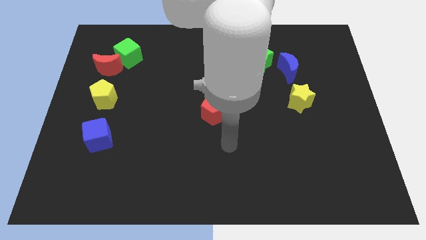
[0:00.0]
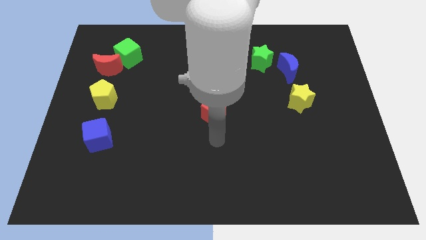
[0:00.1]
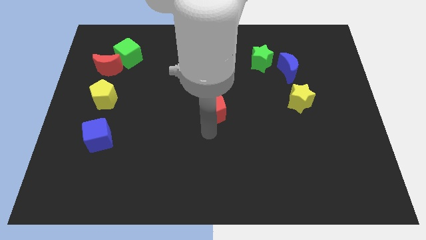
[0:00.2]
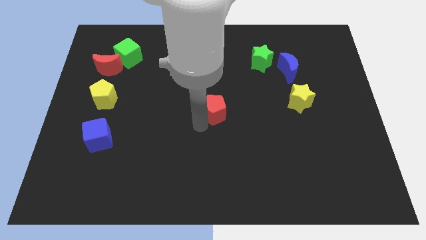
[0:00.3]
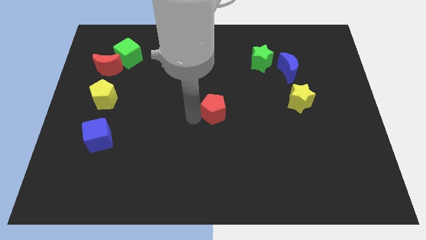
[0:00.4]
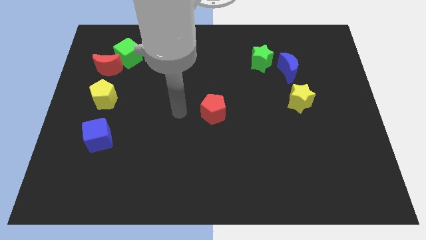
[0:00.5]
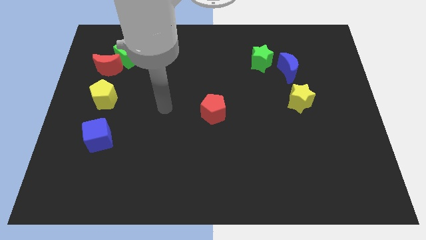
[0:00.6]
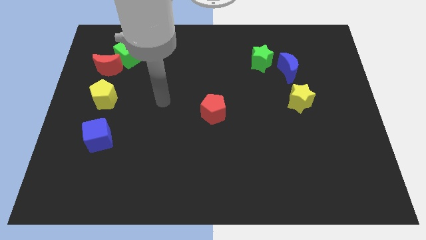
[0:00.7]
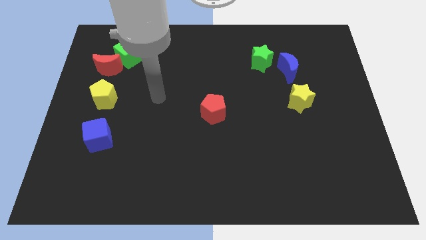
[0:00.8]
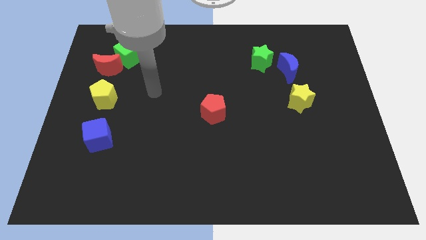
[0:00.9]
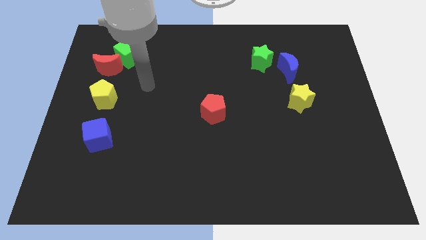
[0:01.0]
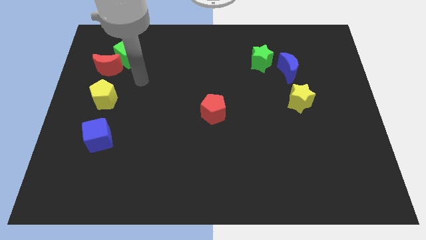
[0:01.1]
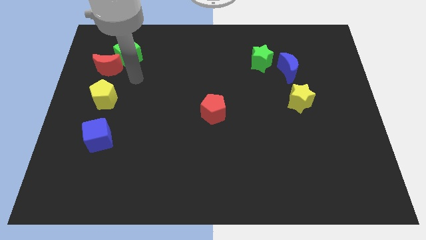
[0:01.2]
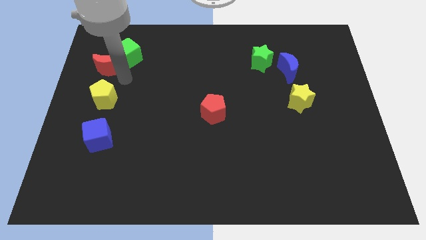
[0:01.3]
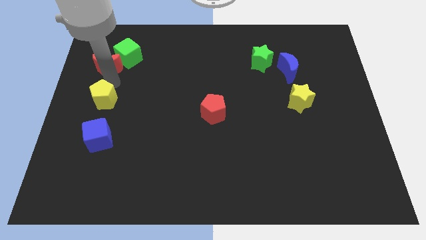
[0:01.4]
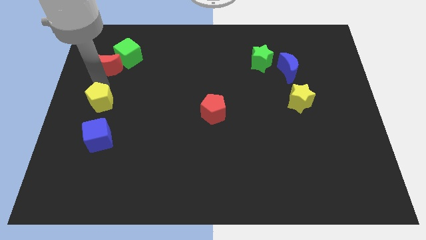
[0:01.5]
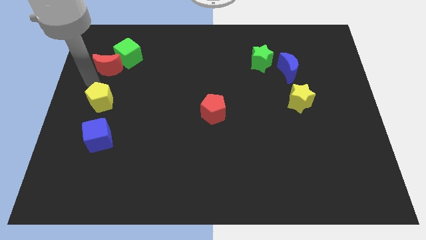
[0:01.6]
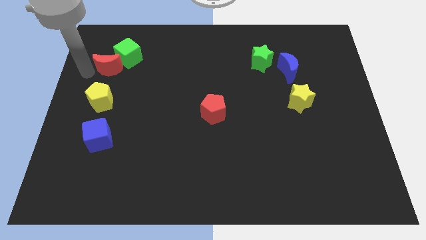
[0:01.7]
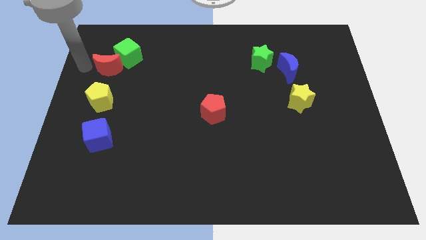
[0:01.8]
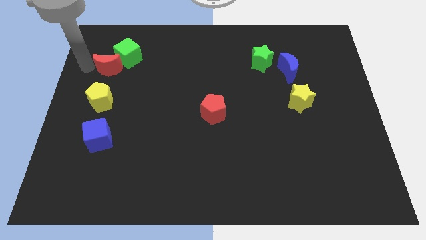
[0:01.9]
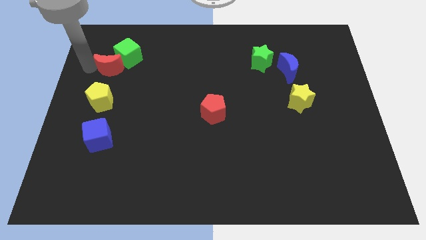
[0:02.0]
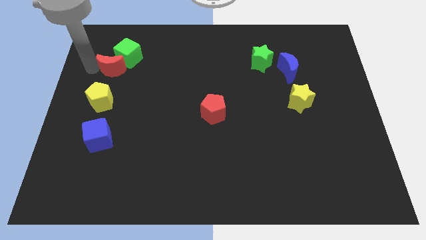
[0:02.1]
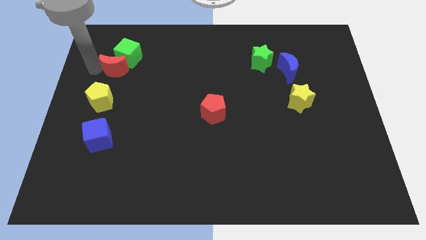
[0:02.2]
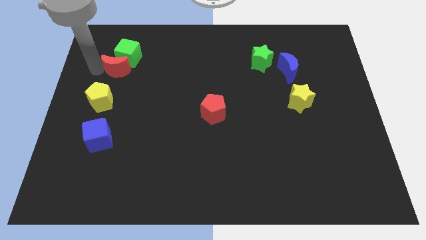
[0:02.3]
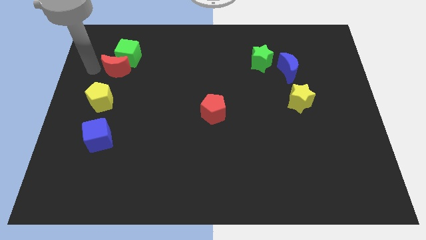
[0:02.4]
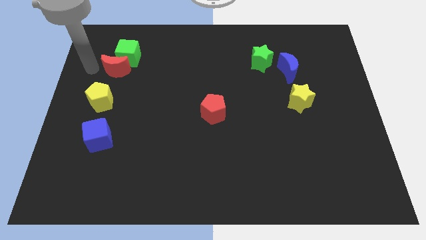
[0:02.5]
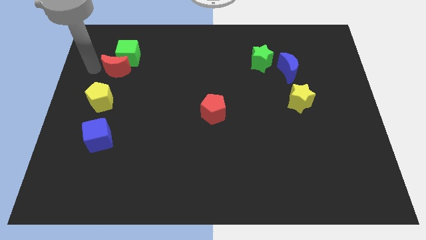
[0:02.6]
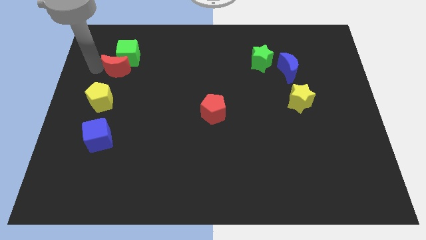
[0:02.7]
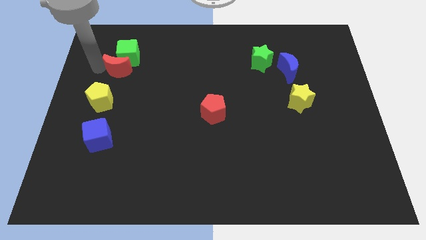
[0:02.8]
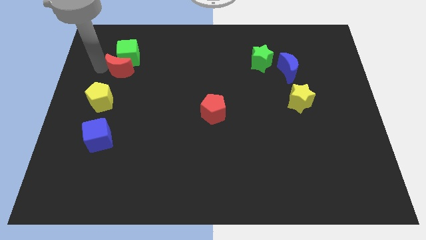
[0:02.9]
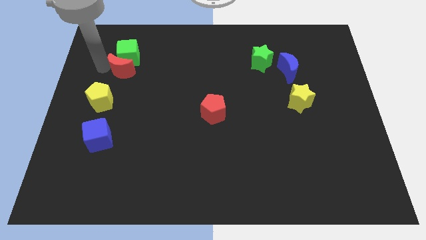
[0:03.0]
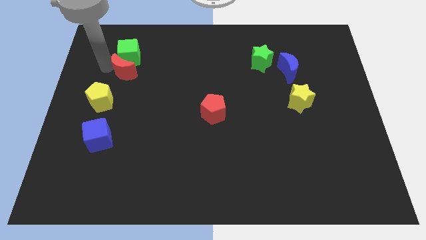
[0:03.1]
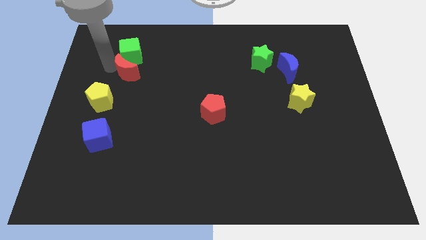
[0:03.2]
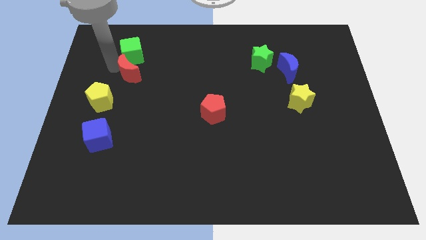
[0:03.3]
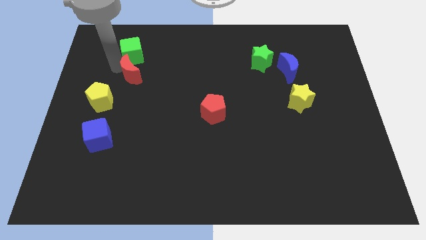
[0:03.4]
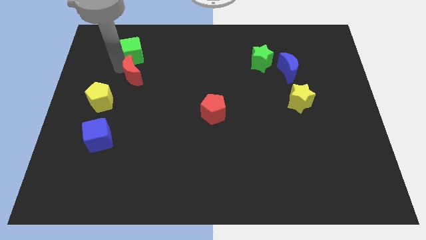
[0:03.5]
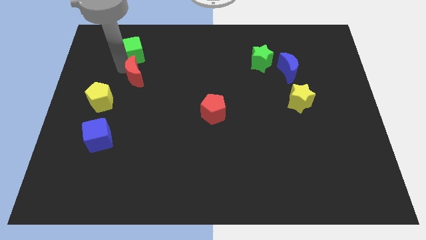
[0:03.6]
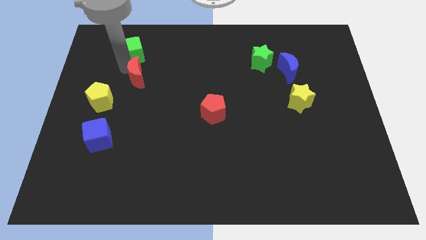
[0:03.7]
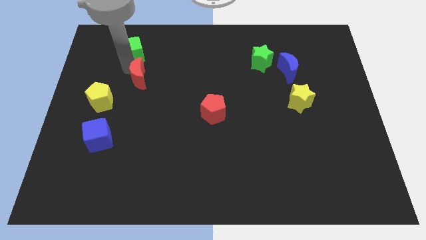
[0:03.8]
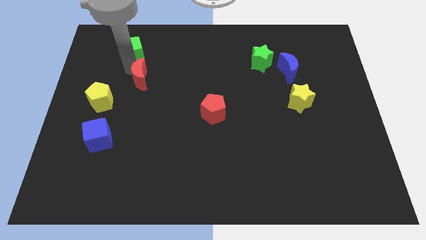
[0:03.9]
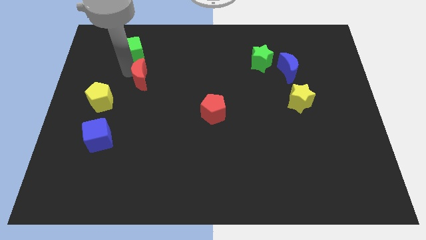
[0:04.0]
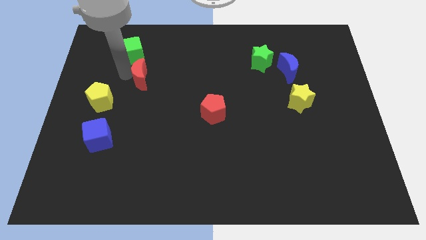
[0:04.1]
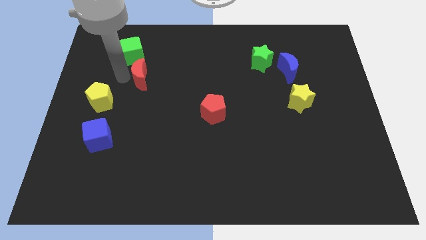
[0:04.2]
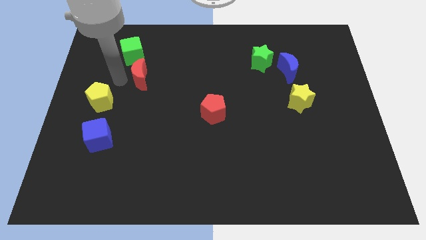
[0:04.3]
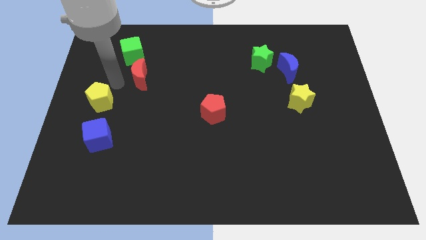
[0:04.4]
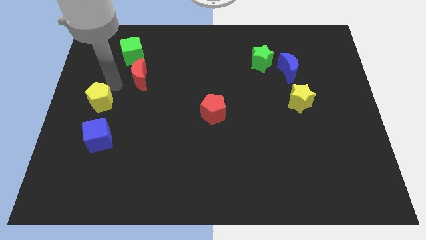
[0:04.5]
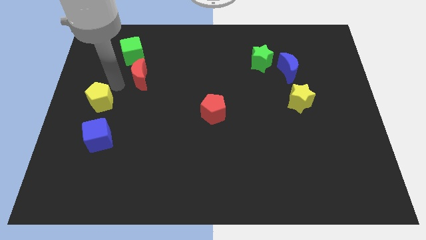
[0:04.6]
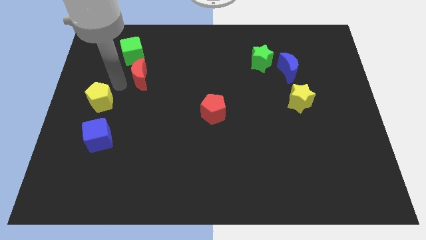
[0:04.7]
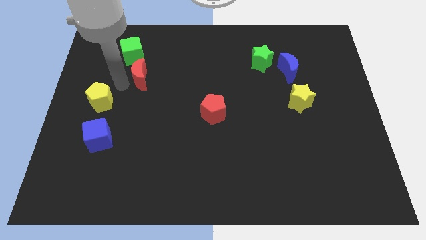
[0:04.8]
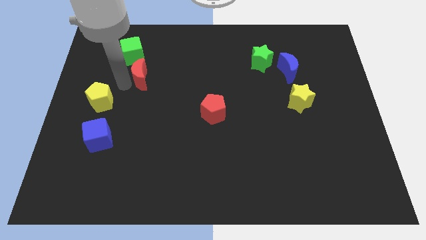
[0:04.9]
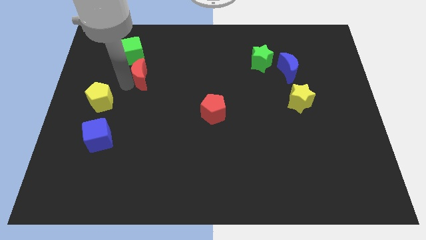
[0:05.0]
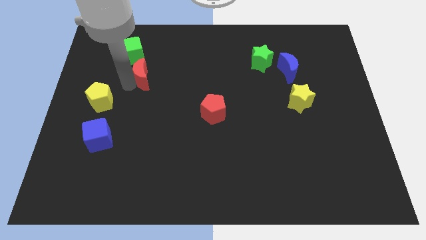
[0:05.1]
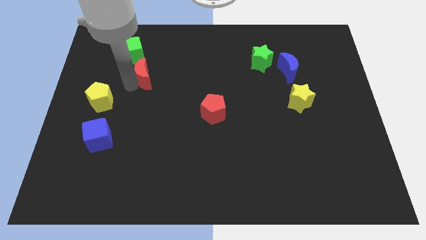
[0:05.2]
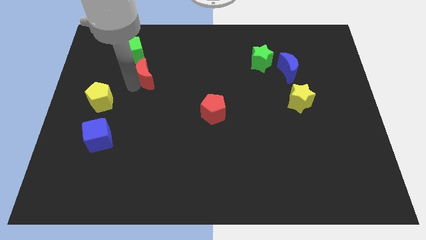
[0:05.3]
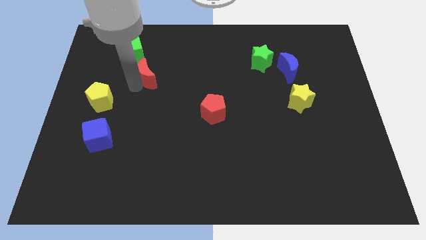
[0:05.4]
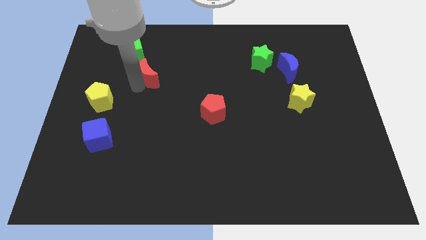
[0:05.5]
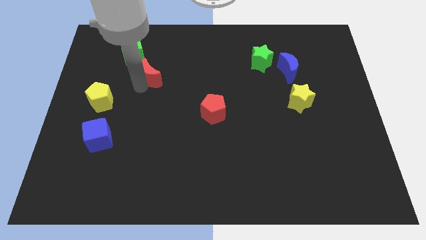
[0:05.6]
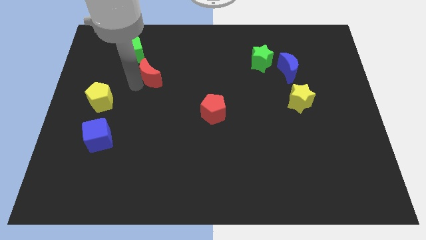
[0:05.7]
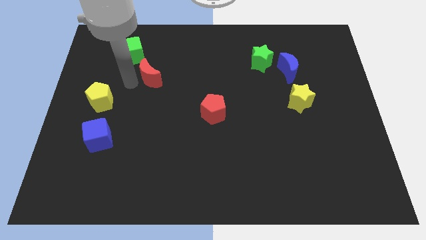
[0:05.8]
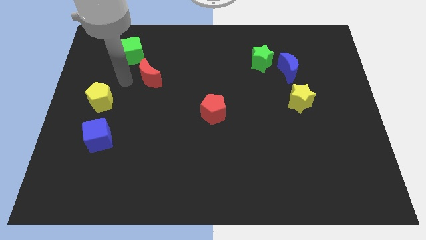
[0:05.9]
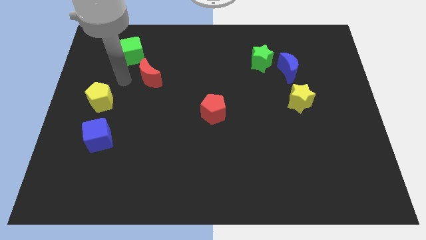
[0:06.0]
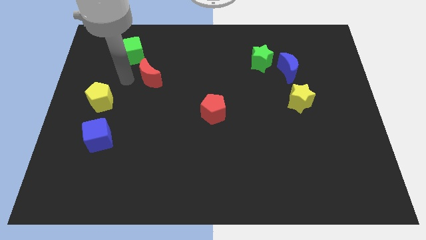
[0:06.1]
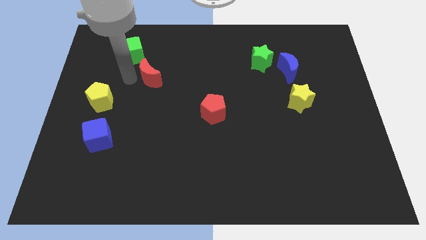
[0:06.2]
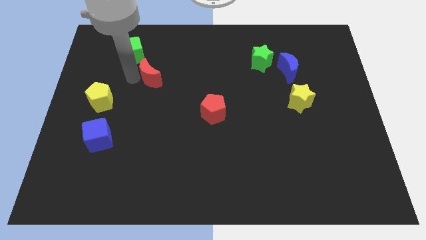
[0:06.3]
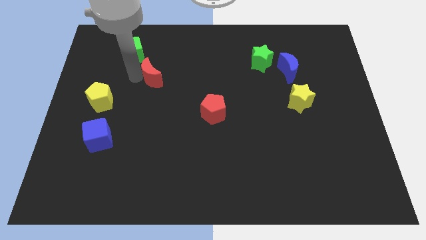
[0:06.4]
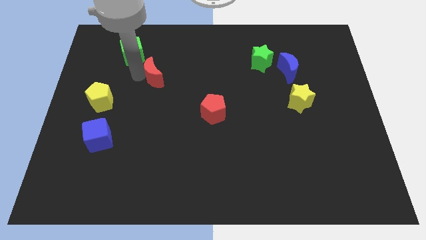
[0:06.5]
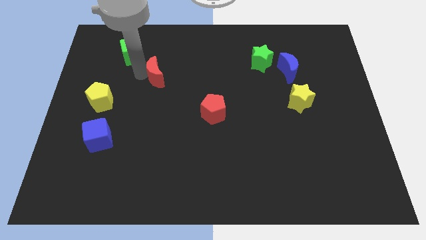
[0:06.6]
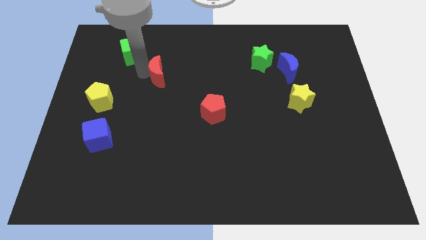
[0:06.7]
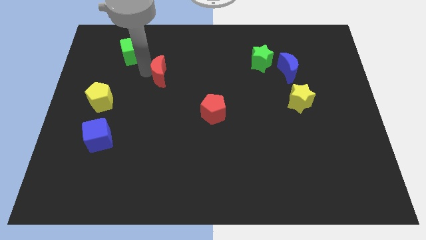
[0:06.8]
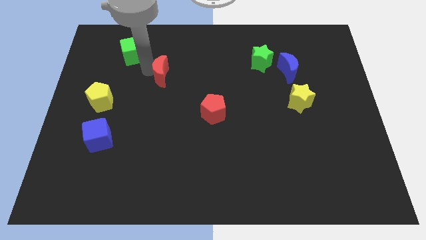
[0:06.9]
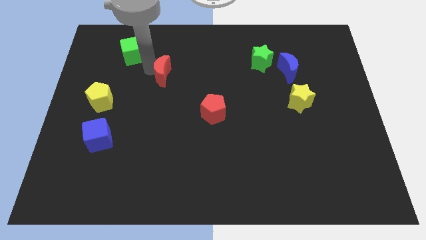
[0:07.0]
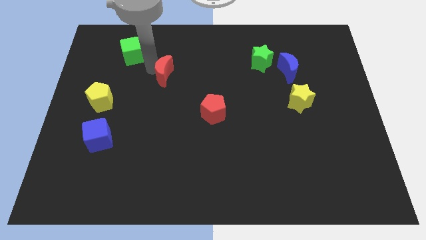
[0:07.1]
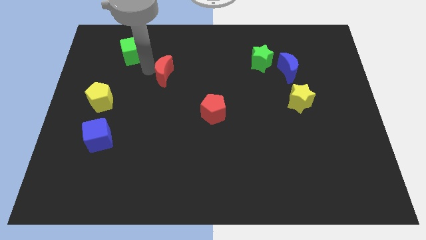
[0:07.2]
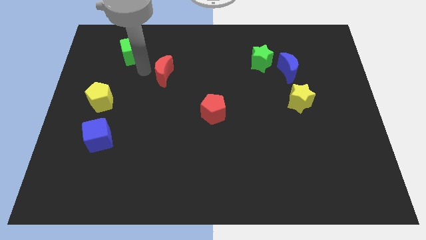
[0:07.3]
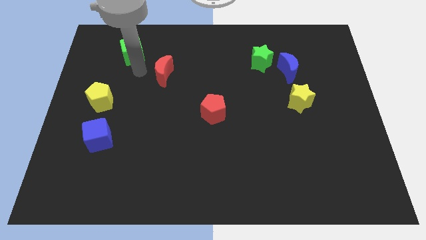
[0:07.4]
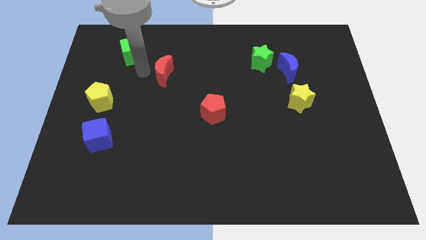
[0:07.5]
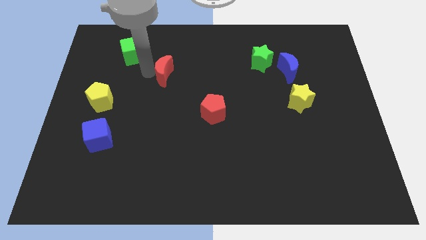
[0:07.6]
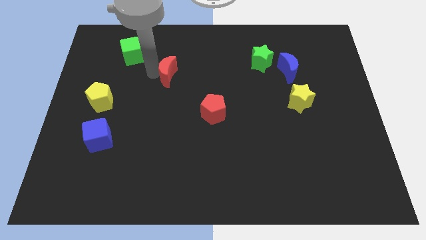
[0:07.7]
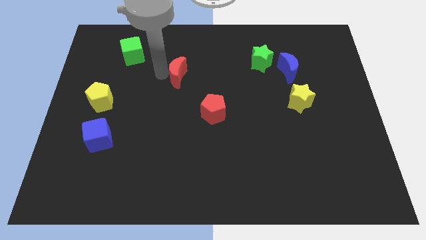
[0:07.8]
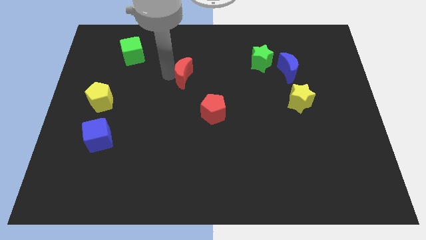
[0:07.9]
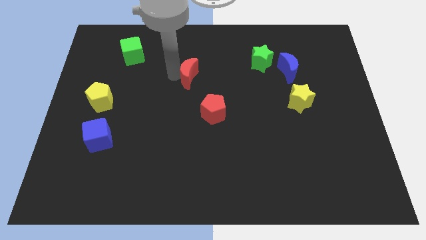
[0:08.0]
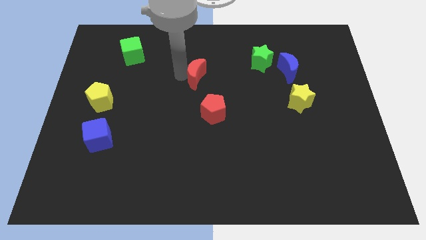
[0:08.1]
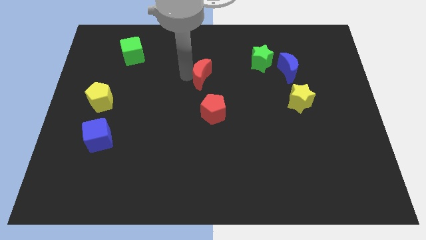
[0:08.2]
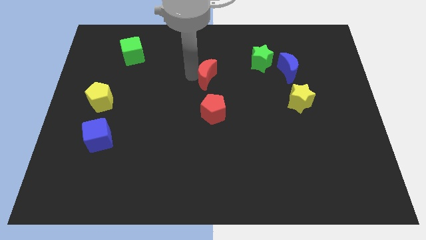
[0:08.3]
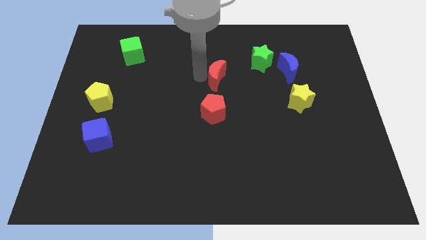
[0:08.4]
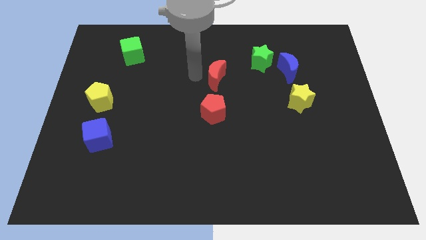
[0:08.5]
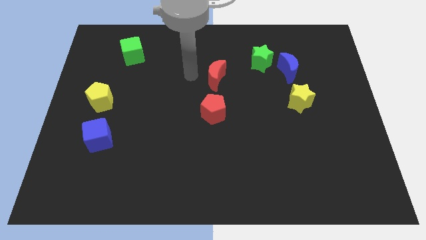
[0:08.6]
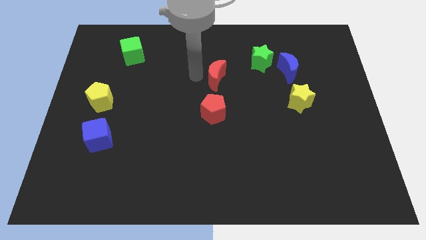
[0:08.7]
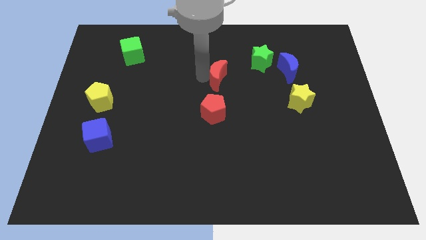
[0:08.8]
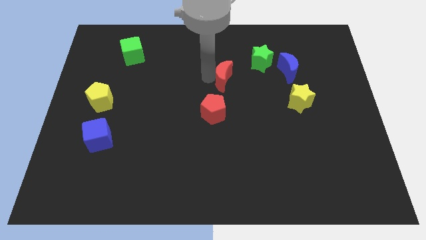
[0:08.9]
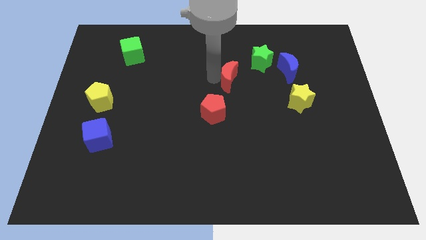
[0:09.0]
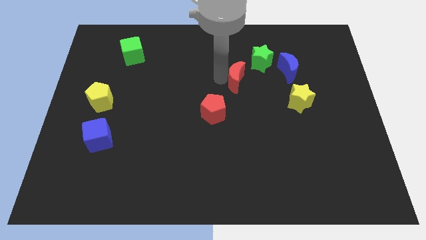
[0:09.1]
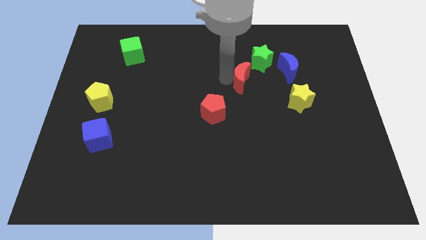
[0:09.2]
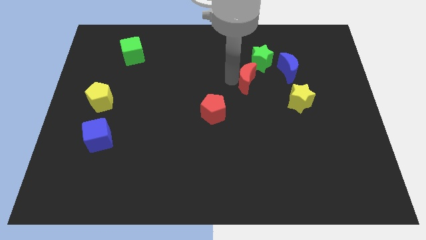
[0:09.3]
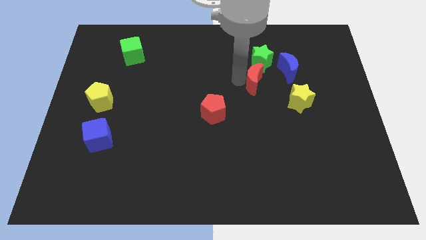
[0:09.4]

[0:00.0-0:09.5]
push the red moon diagonally up and to the left of the yellow star
